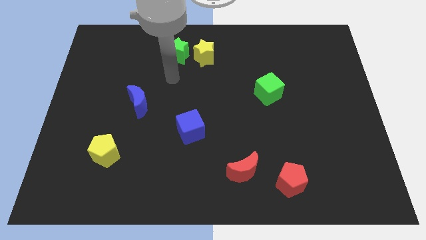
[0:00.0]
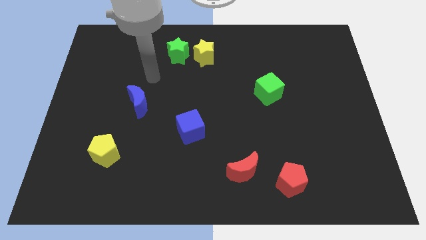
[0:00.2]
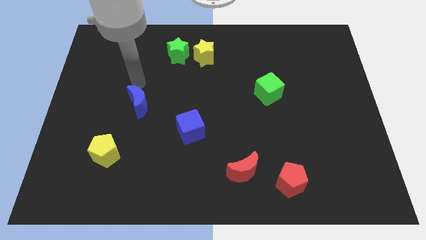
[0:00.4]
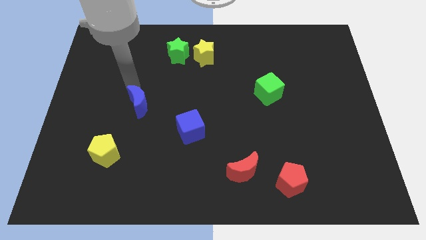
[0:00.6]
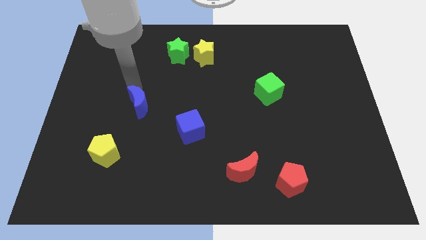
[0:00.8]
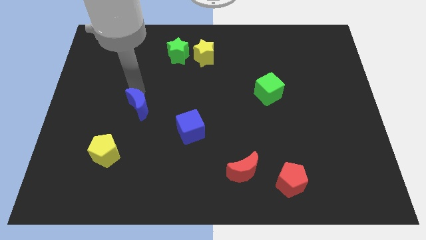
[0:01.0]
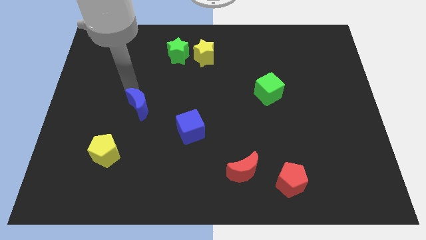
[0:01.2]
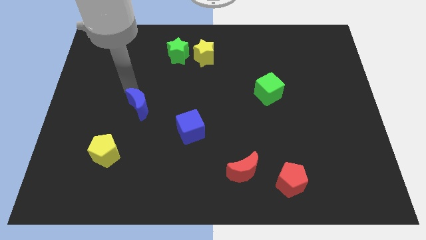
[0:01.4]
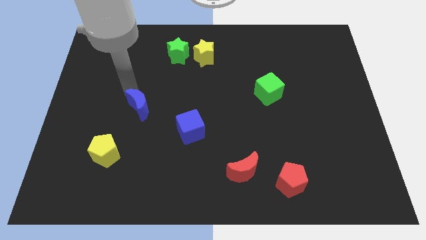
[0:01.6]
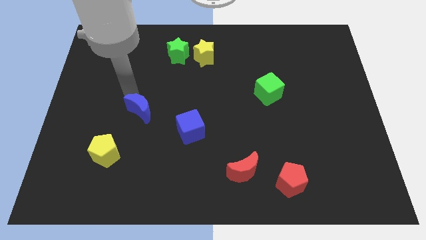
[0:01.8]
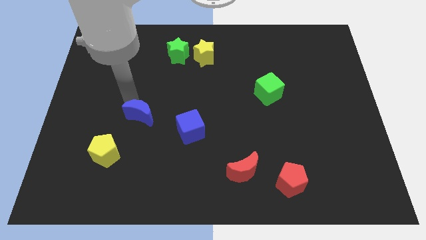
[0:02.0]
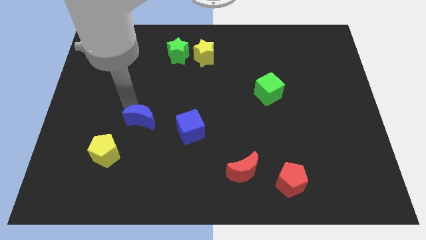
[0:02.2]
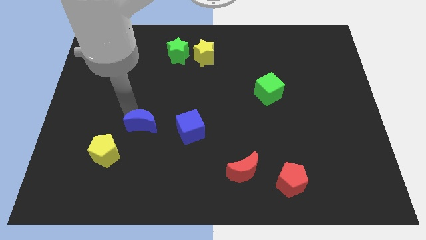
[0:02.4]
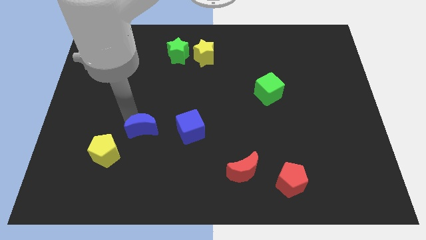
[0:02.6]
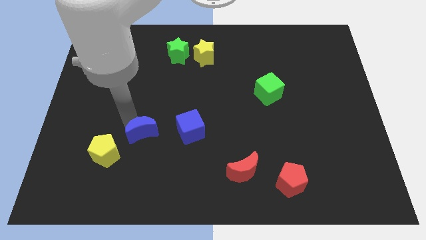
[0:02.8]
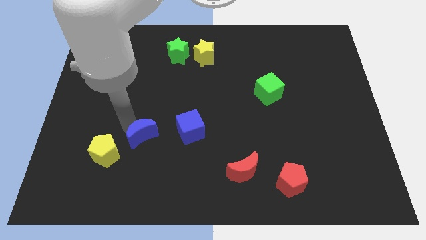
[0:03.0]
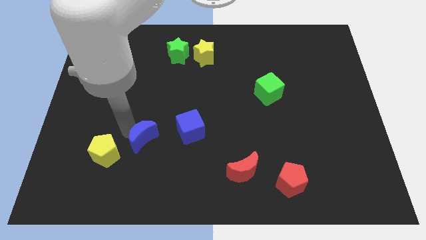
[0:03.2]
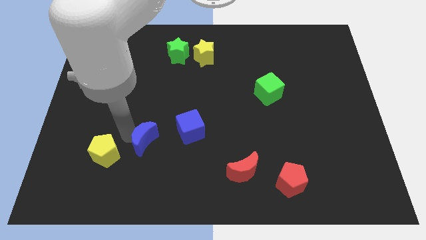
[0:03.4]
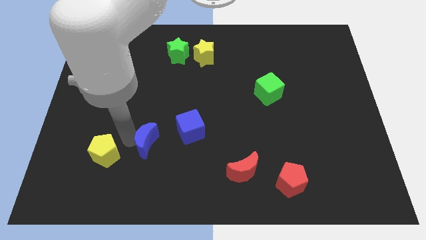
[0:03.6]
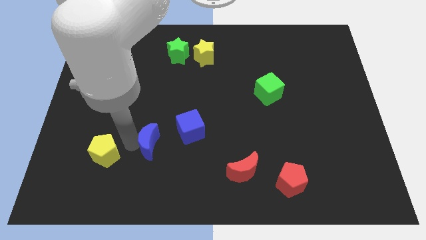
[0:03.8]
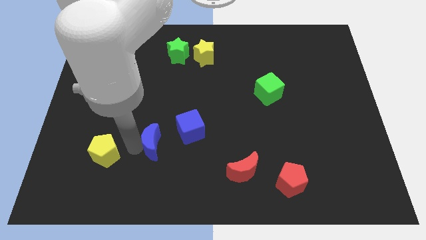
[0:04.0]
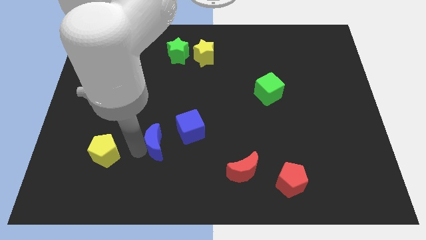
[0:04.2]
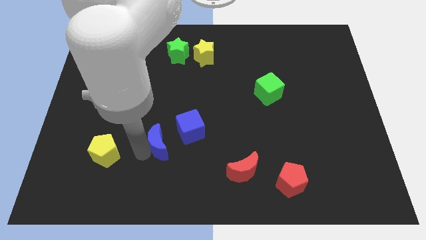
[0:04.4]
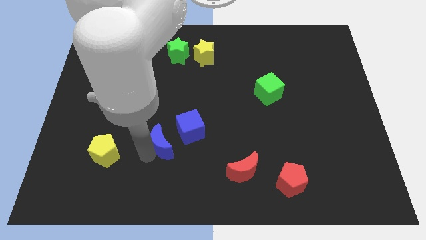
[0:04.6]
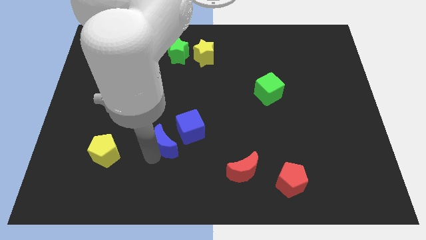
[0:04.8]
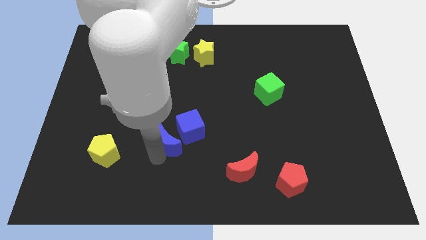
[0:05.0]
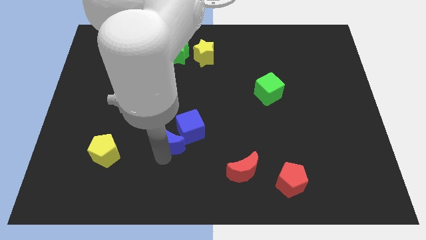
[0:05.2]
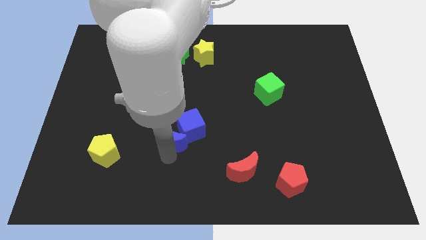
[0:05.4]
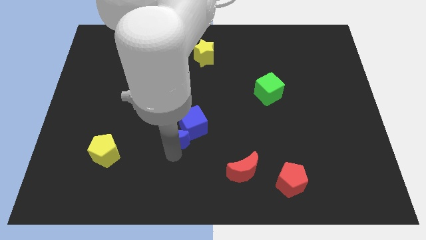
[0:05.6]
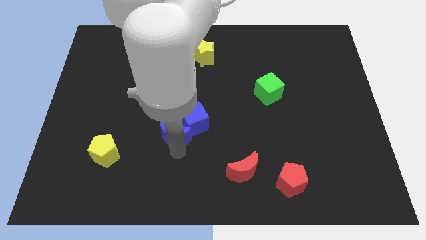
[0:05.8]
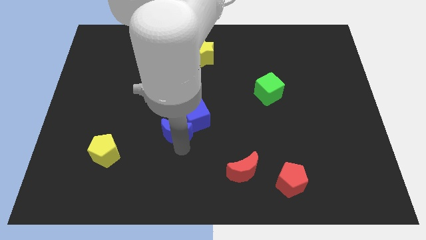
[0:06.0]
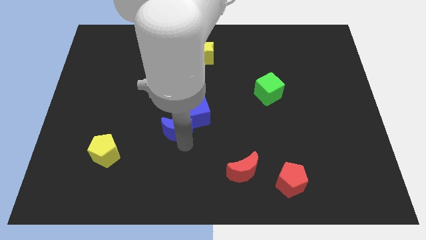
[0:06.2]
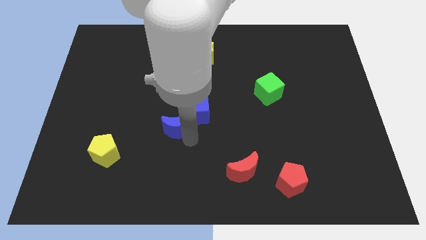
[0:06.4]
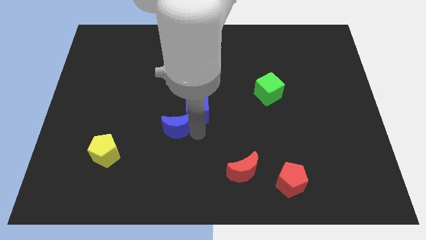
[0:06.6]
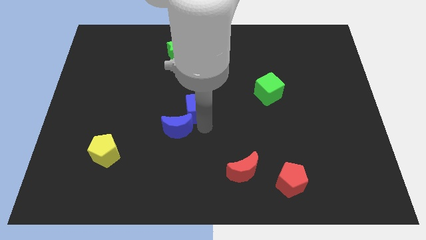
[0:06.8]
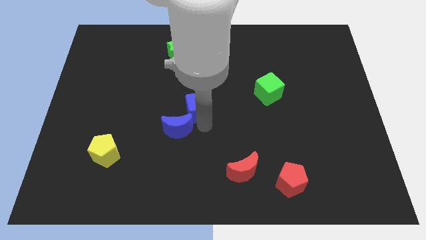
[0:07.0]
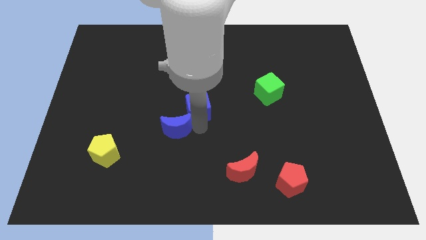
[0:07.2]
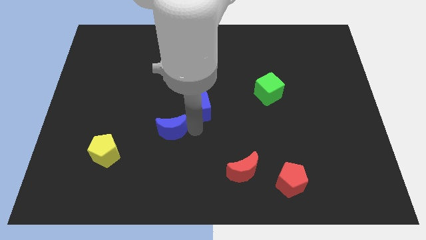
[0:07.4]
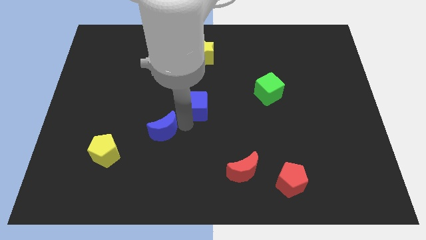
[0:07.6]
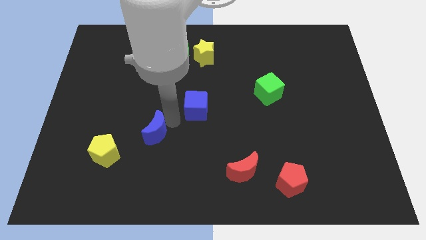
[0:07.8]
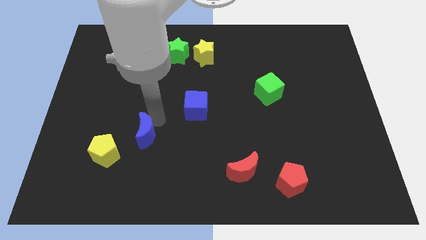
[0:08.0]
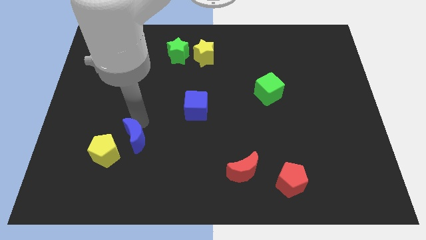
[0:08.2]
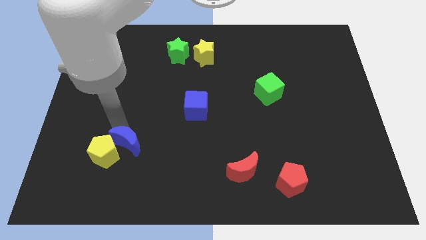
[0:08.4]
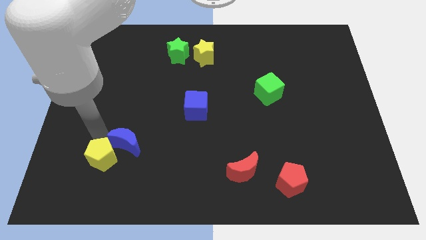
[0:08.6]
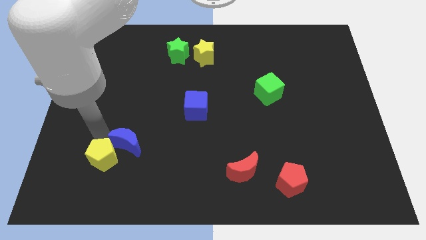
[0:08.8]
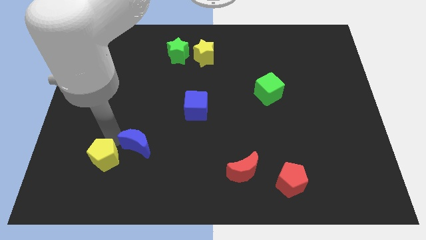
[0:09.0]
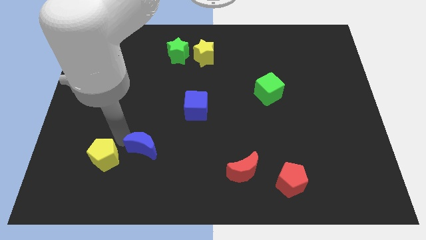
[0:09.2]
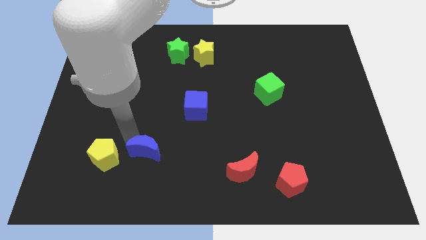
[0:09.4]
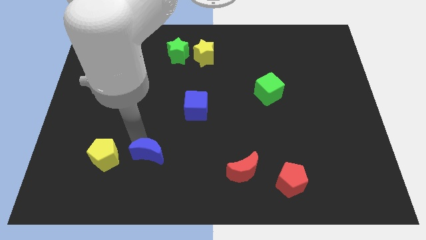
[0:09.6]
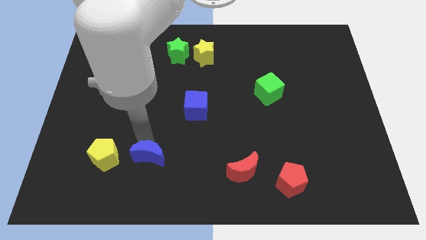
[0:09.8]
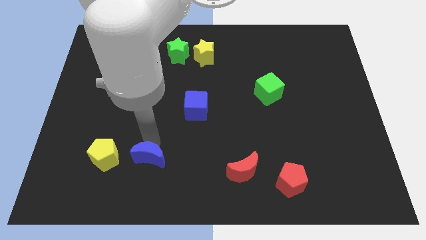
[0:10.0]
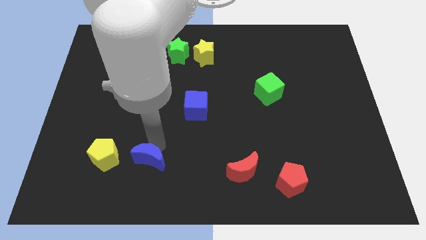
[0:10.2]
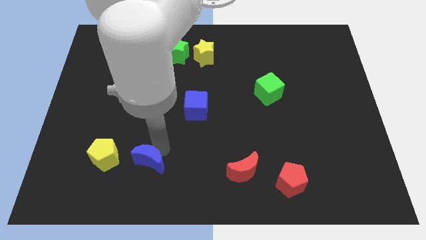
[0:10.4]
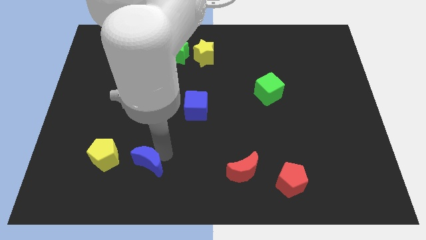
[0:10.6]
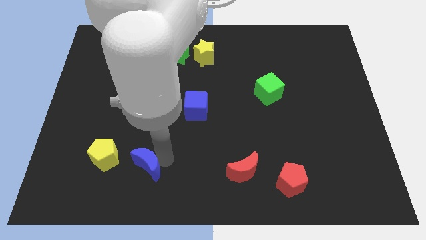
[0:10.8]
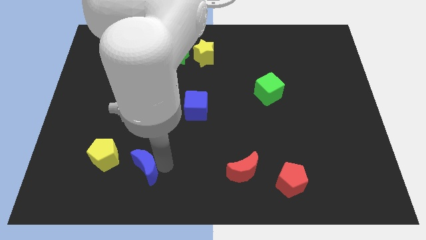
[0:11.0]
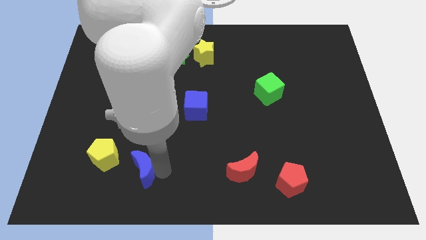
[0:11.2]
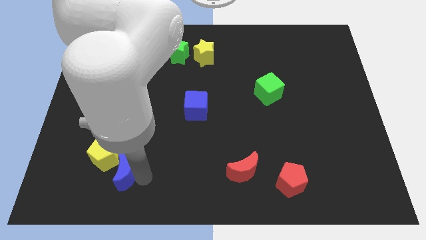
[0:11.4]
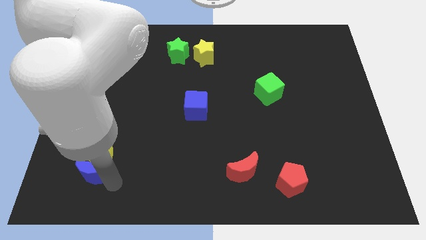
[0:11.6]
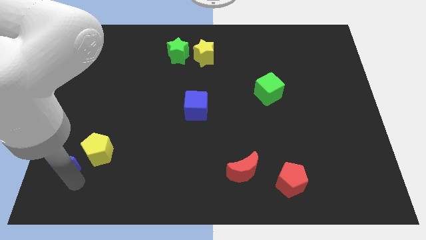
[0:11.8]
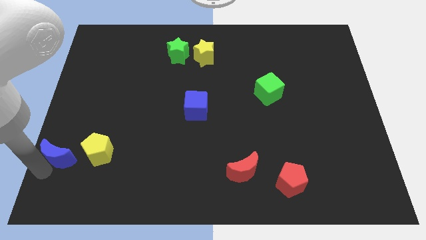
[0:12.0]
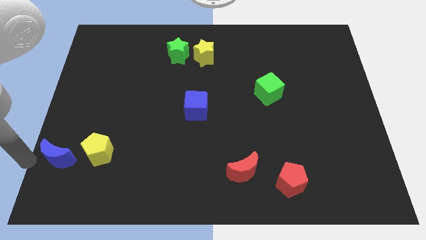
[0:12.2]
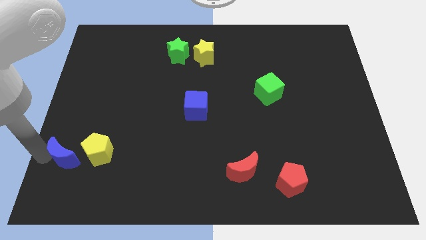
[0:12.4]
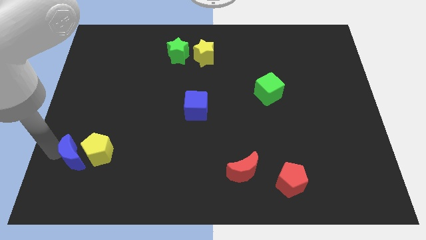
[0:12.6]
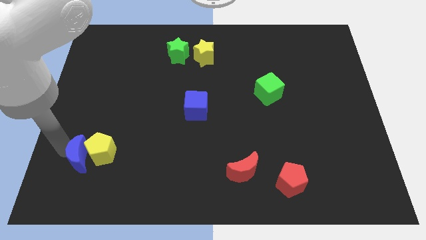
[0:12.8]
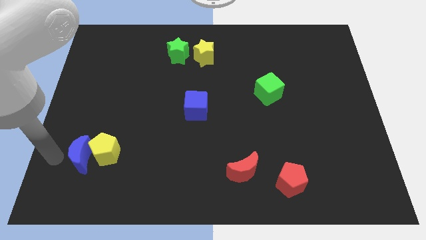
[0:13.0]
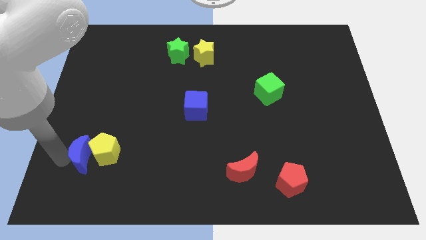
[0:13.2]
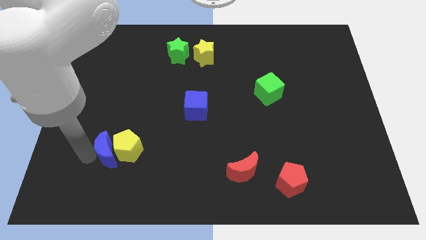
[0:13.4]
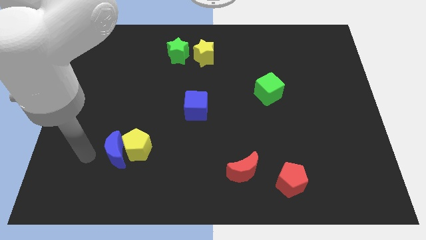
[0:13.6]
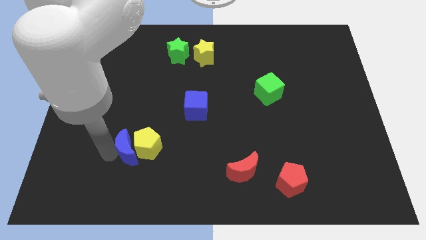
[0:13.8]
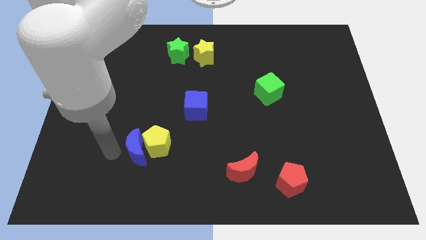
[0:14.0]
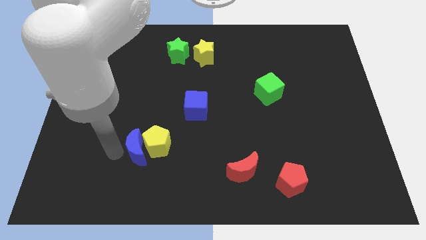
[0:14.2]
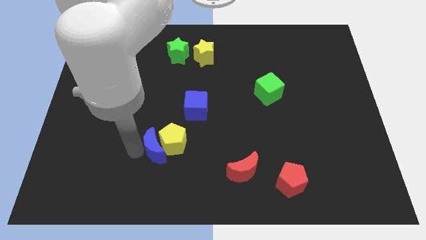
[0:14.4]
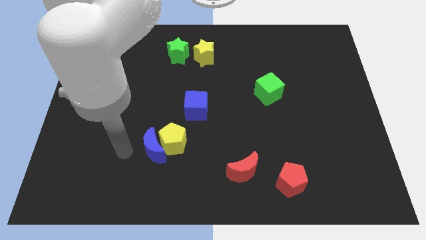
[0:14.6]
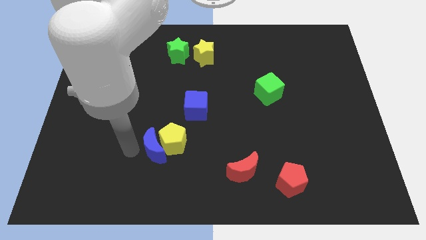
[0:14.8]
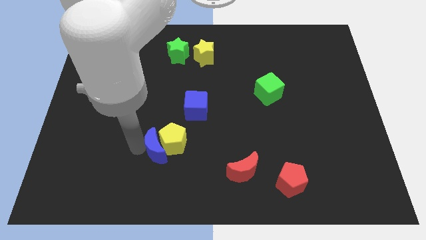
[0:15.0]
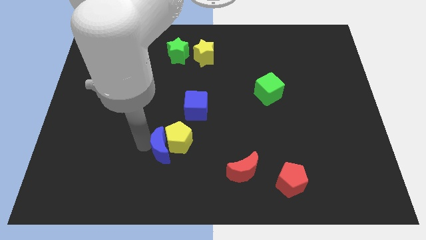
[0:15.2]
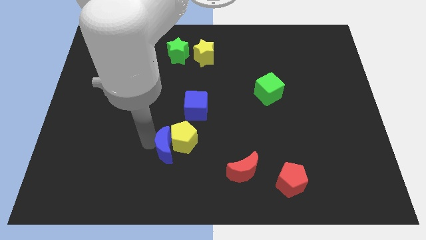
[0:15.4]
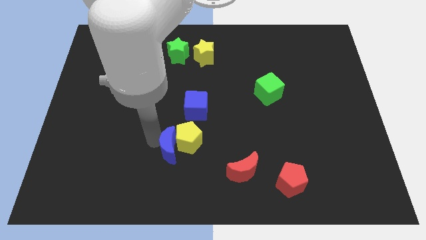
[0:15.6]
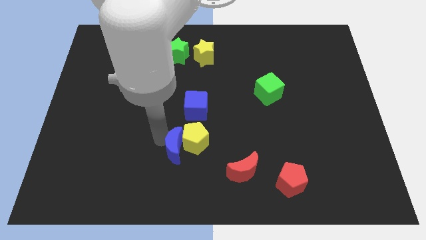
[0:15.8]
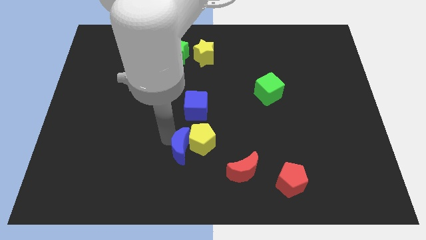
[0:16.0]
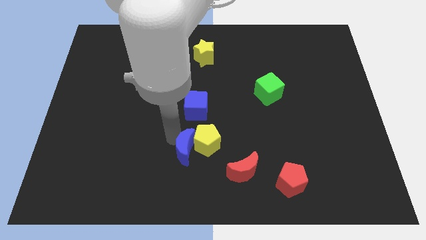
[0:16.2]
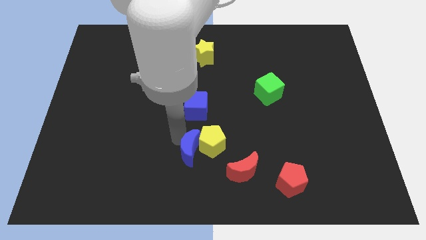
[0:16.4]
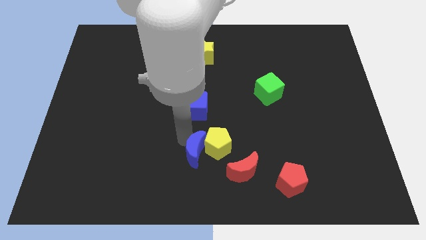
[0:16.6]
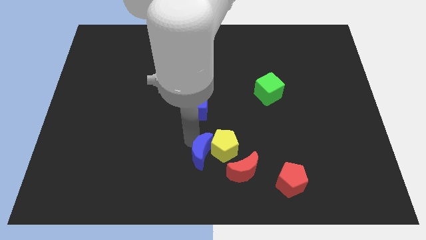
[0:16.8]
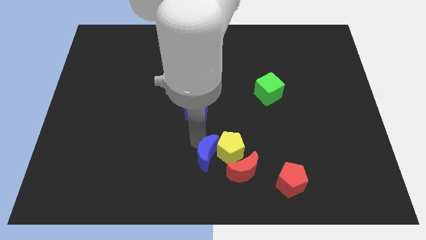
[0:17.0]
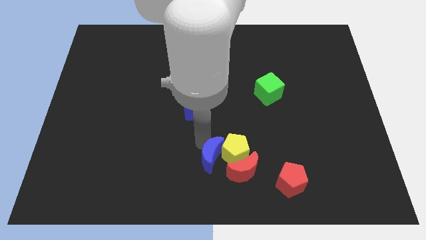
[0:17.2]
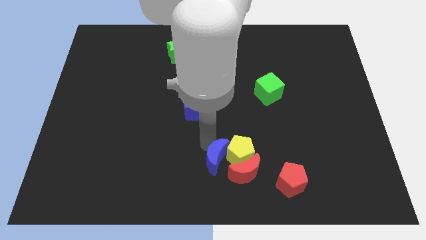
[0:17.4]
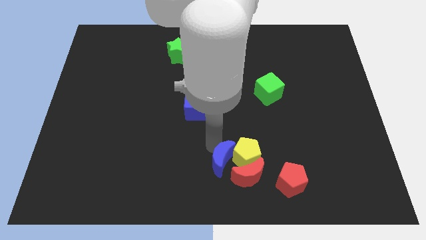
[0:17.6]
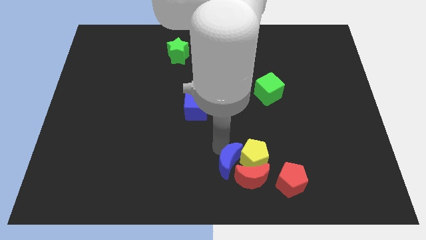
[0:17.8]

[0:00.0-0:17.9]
push the blue moon just left of the red pentagon
